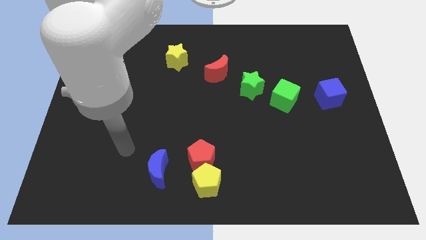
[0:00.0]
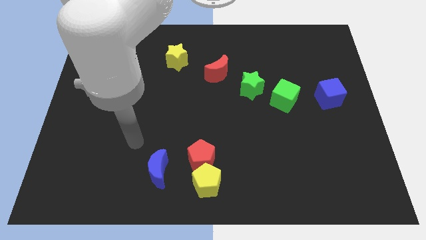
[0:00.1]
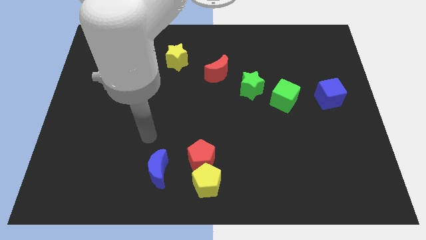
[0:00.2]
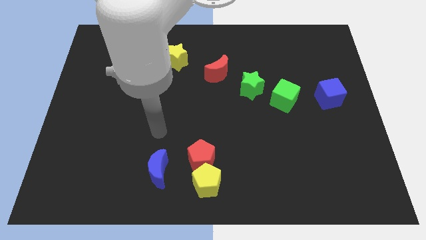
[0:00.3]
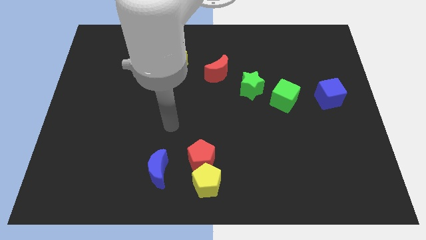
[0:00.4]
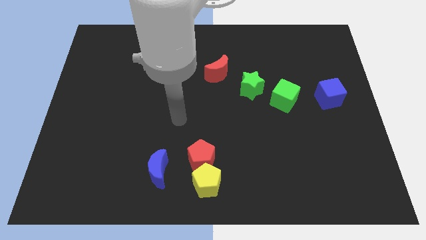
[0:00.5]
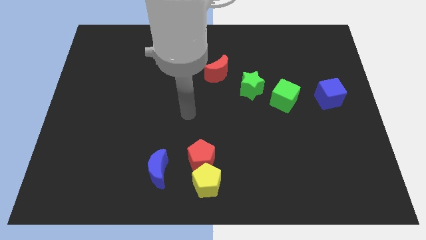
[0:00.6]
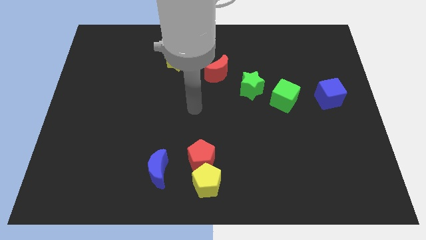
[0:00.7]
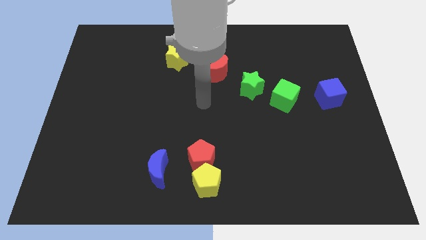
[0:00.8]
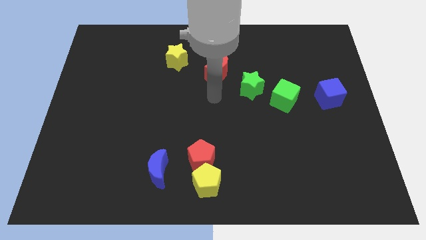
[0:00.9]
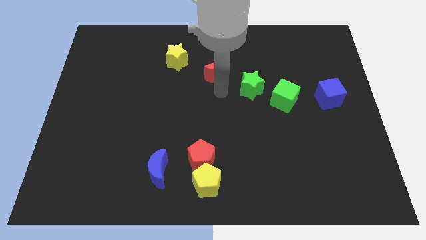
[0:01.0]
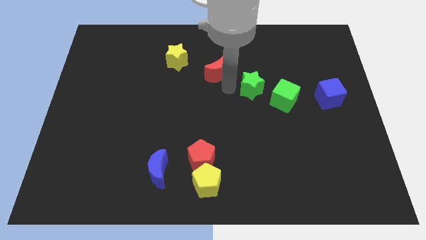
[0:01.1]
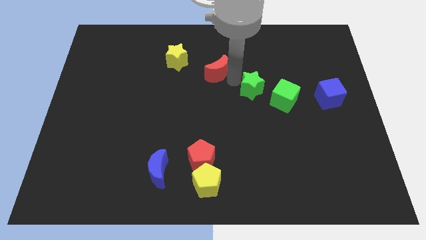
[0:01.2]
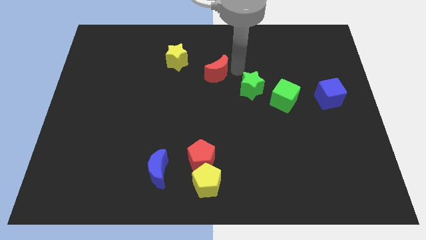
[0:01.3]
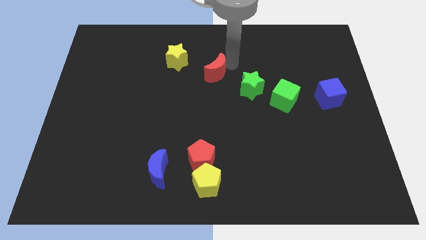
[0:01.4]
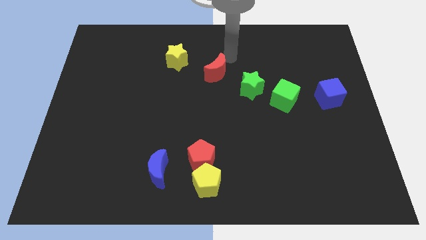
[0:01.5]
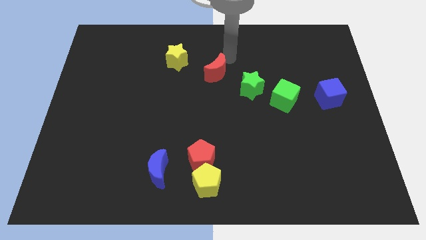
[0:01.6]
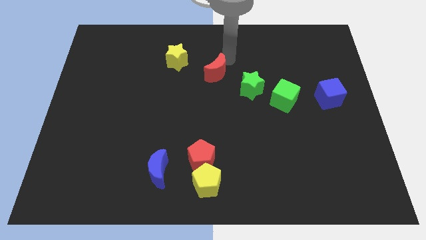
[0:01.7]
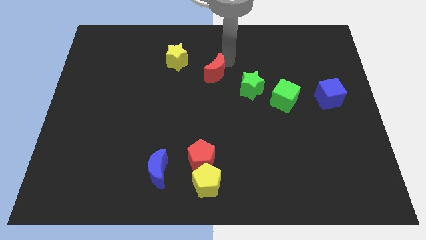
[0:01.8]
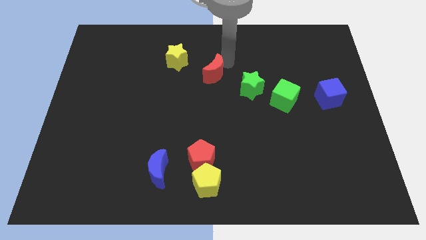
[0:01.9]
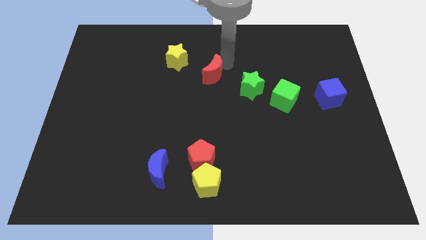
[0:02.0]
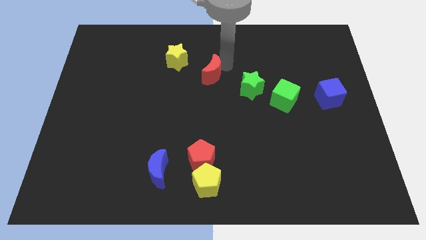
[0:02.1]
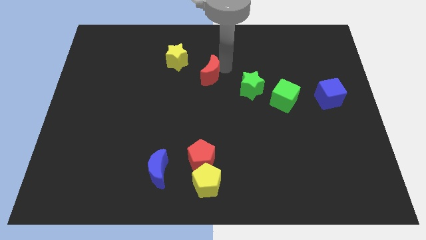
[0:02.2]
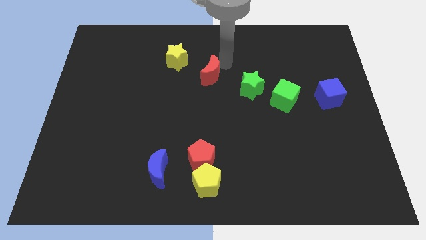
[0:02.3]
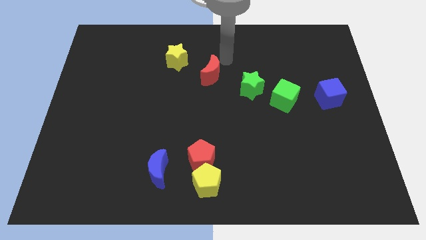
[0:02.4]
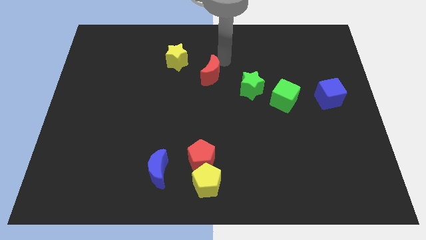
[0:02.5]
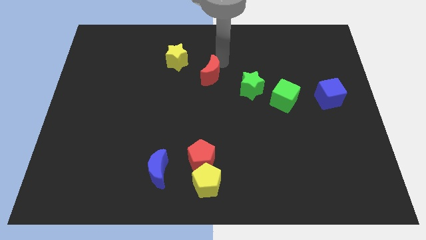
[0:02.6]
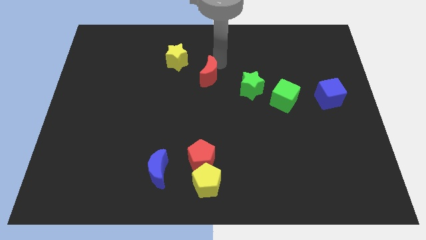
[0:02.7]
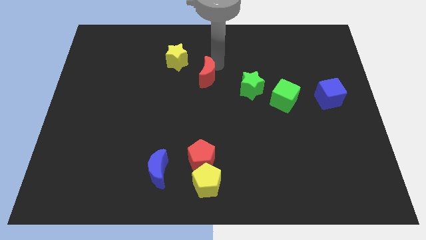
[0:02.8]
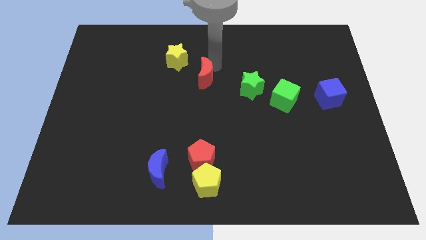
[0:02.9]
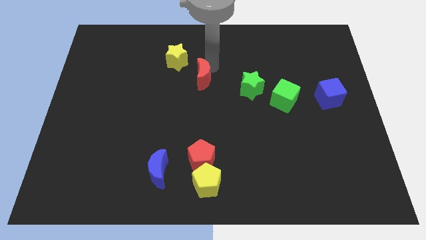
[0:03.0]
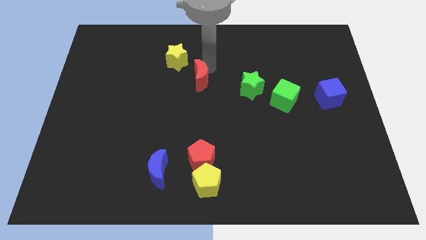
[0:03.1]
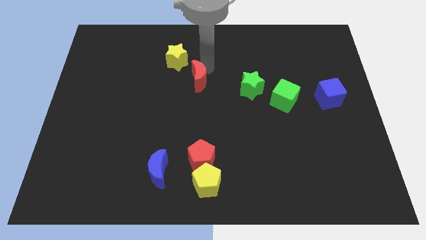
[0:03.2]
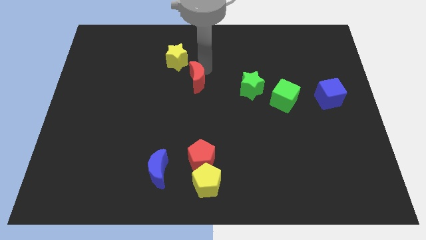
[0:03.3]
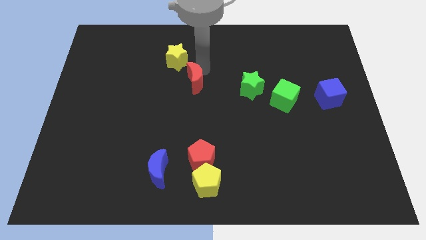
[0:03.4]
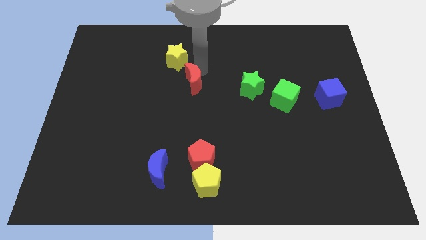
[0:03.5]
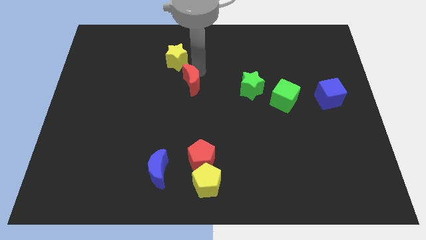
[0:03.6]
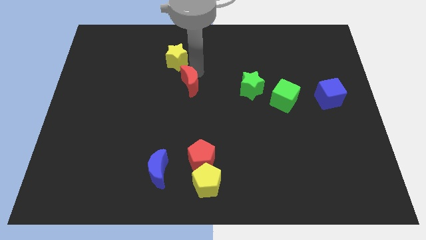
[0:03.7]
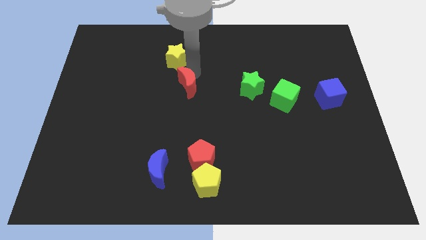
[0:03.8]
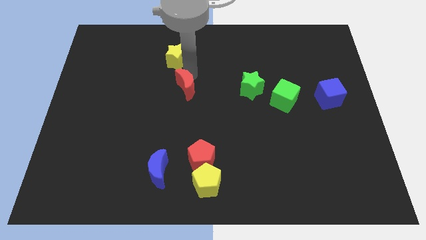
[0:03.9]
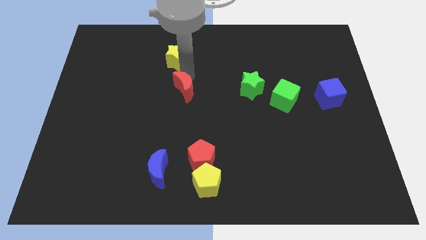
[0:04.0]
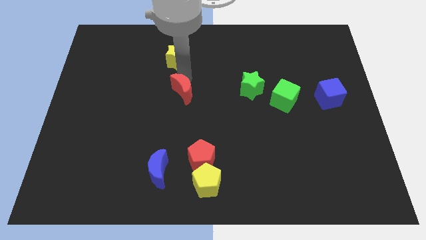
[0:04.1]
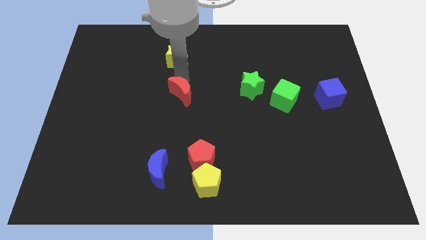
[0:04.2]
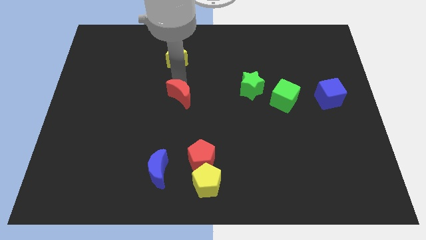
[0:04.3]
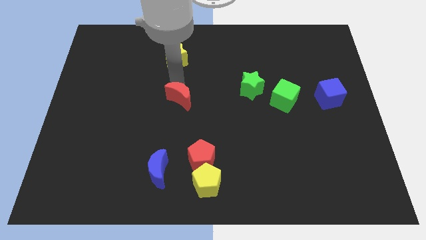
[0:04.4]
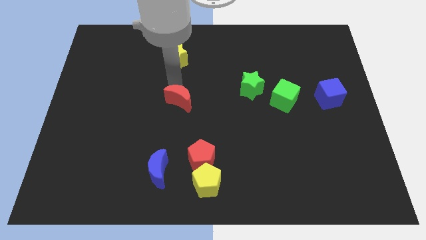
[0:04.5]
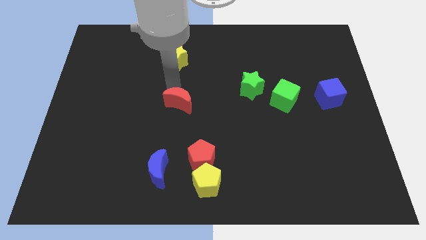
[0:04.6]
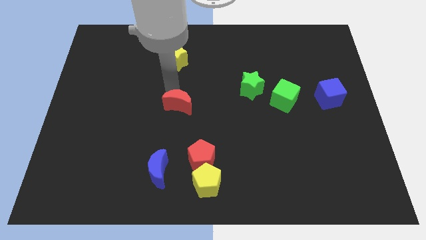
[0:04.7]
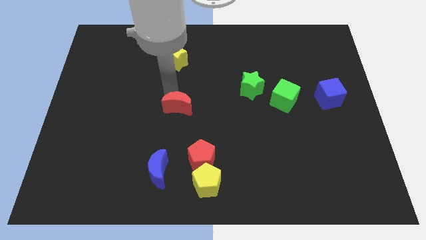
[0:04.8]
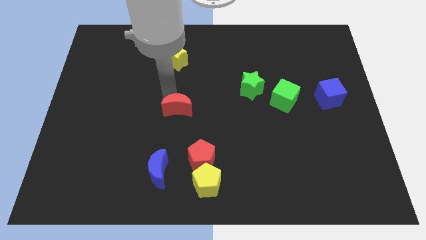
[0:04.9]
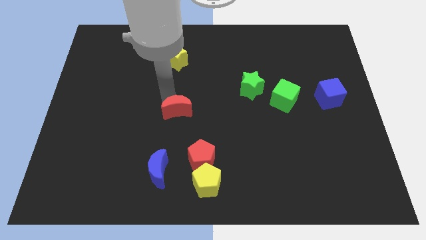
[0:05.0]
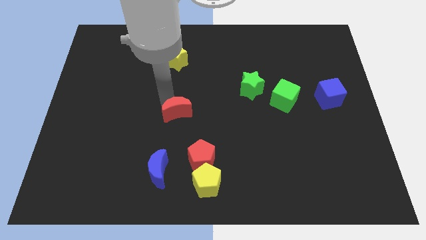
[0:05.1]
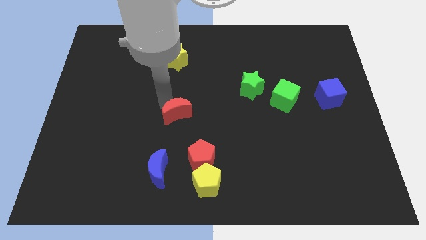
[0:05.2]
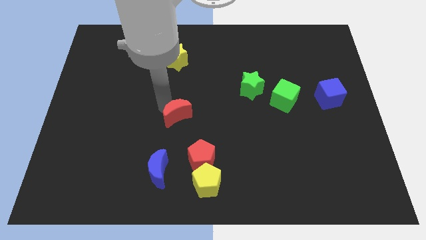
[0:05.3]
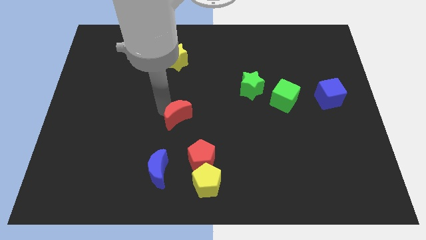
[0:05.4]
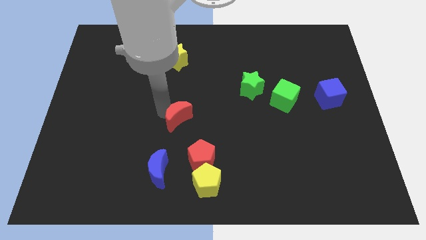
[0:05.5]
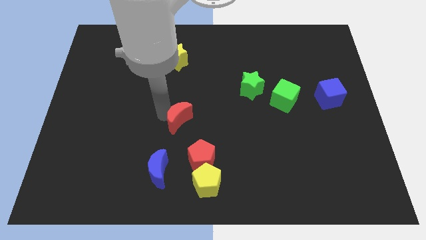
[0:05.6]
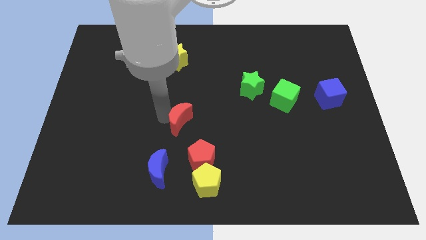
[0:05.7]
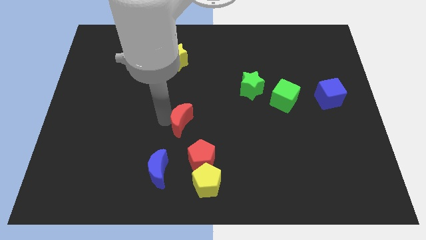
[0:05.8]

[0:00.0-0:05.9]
move the red moon to the top of the red pentagon

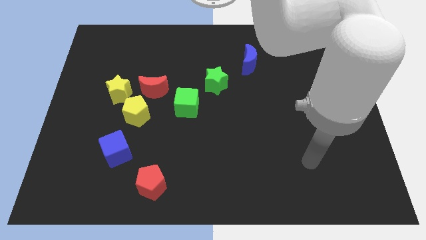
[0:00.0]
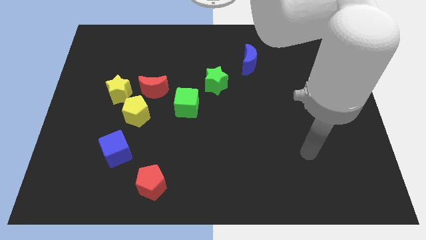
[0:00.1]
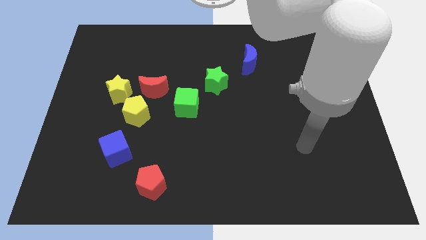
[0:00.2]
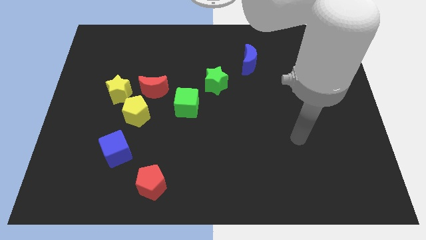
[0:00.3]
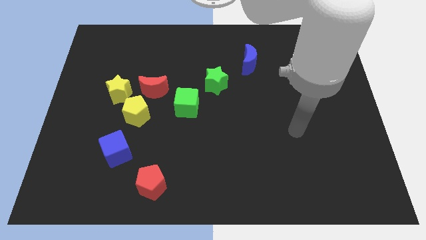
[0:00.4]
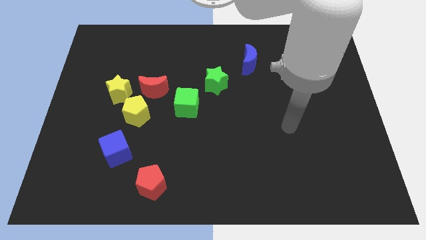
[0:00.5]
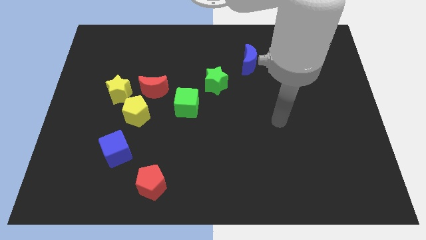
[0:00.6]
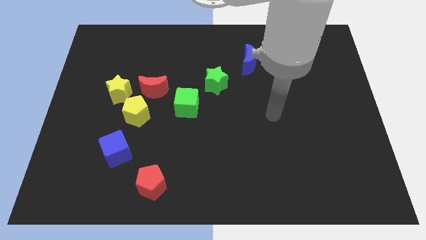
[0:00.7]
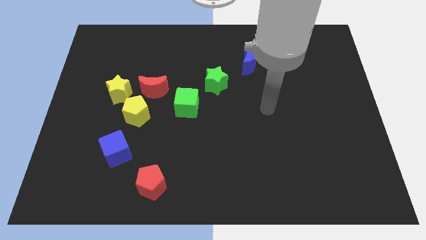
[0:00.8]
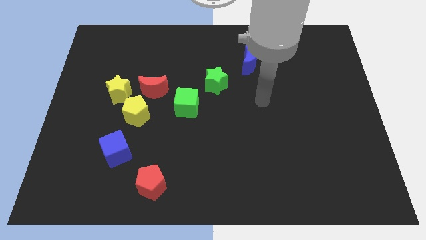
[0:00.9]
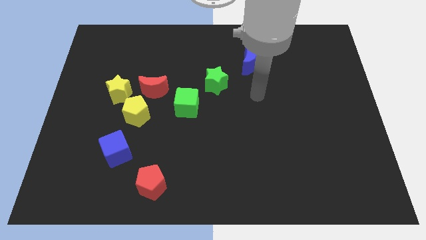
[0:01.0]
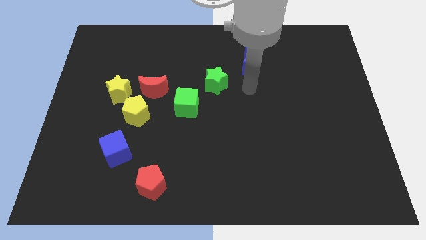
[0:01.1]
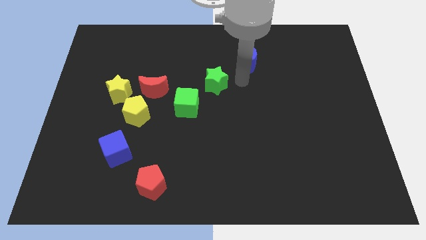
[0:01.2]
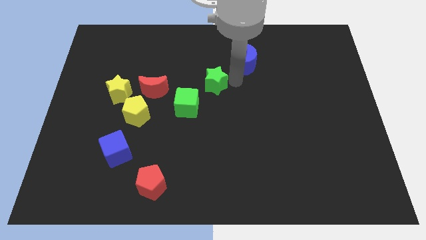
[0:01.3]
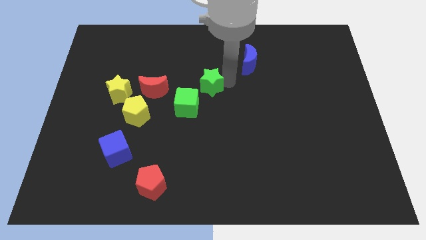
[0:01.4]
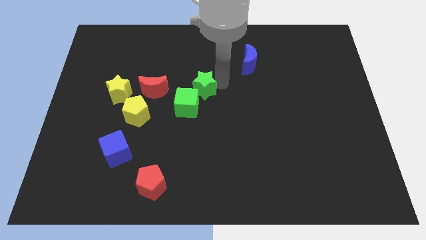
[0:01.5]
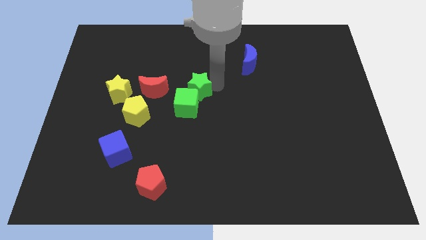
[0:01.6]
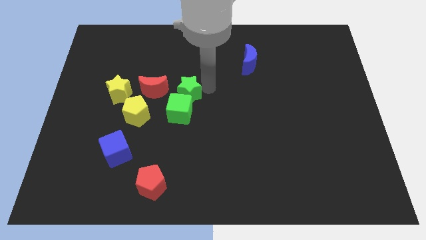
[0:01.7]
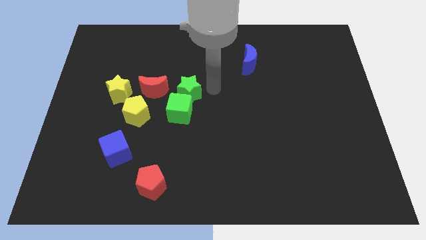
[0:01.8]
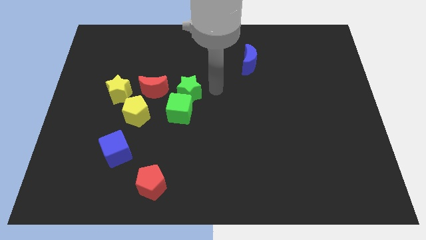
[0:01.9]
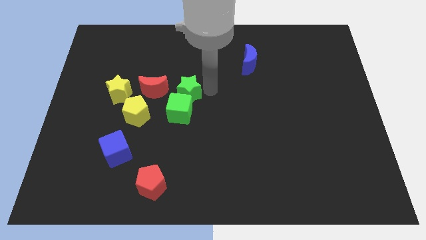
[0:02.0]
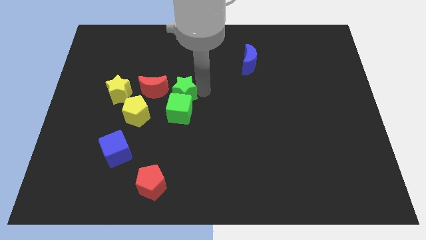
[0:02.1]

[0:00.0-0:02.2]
put the green star to the top right of the yellow pentagon
